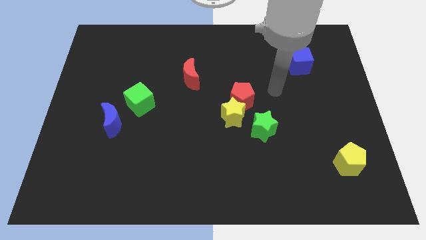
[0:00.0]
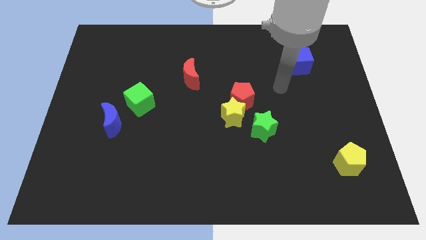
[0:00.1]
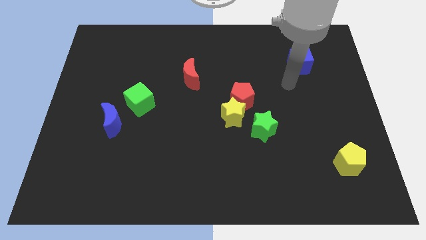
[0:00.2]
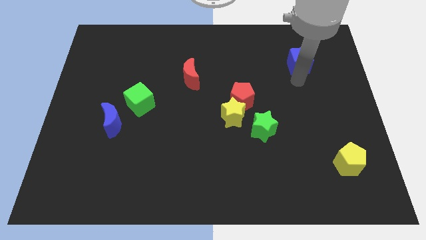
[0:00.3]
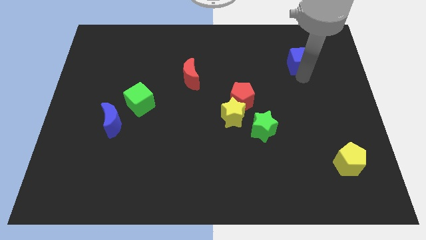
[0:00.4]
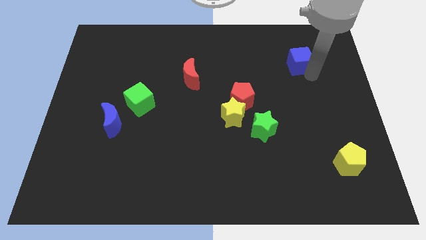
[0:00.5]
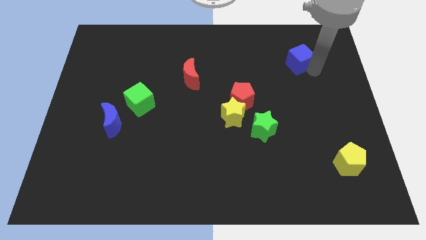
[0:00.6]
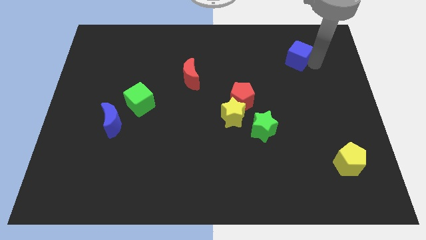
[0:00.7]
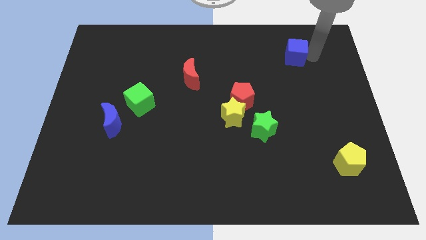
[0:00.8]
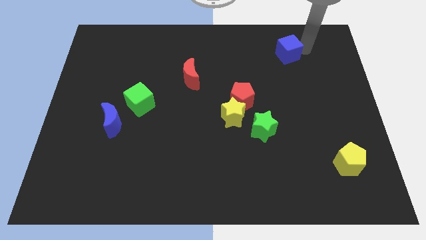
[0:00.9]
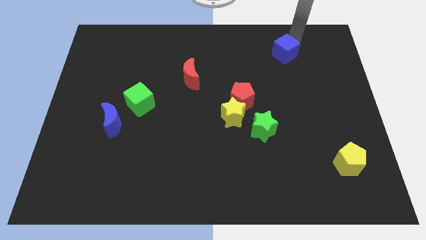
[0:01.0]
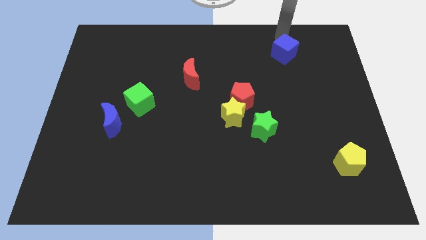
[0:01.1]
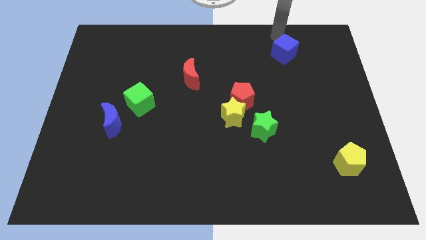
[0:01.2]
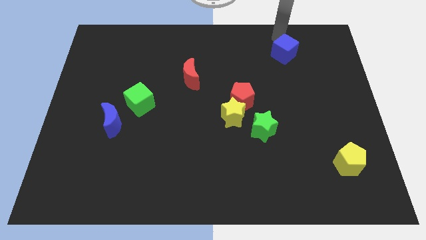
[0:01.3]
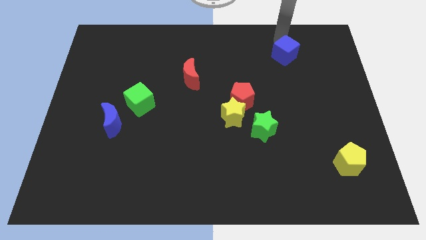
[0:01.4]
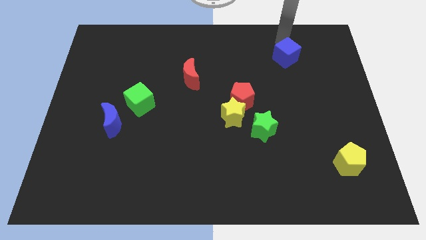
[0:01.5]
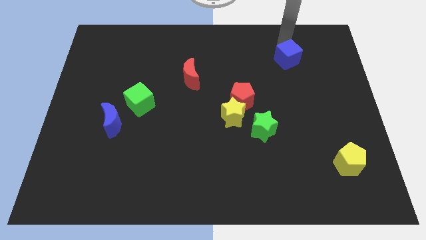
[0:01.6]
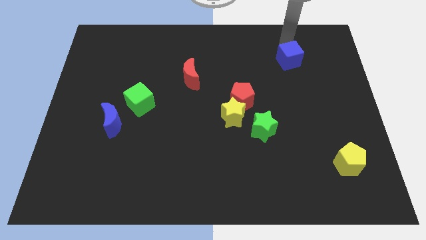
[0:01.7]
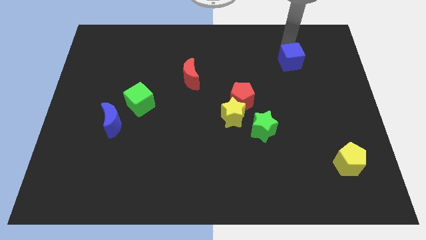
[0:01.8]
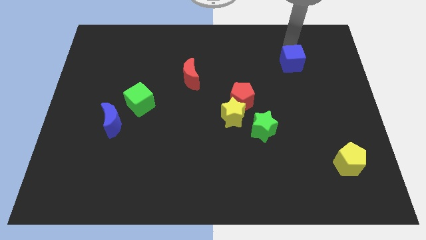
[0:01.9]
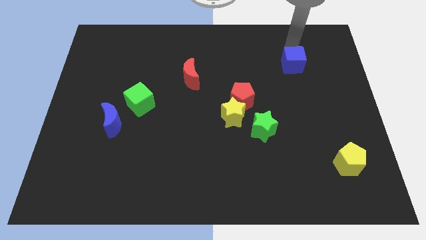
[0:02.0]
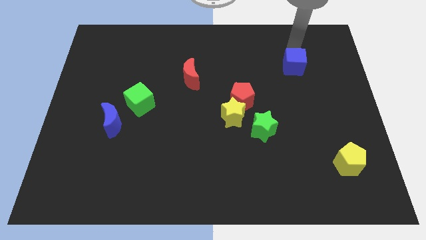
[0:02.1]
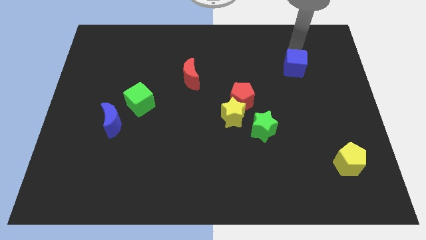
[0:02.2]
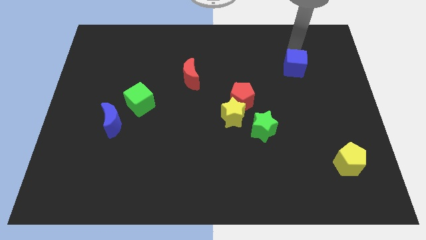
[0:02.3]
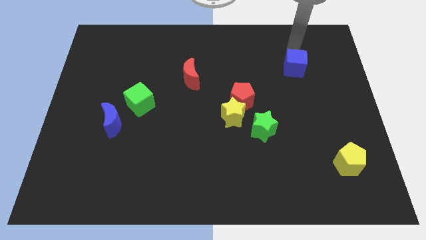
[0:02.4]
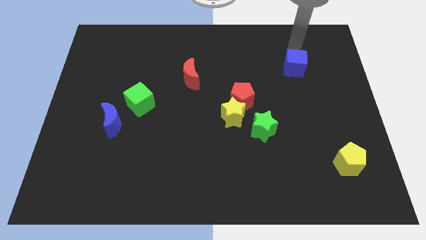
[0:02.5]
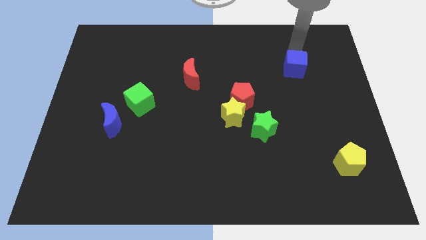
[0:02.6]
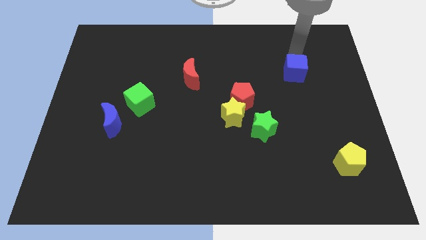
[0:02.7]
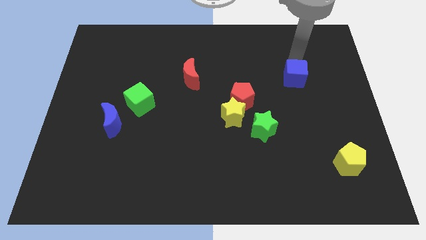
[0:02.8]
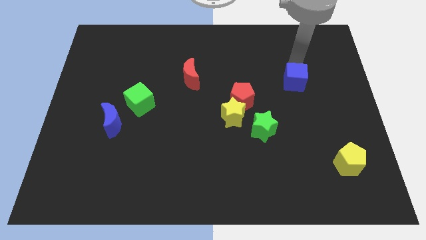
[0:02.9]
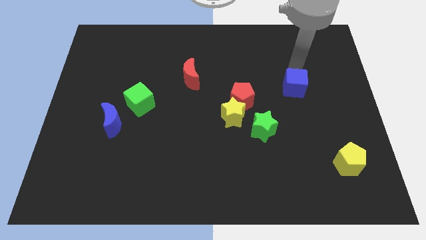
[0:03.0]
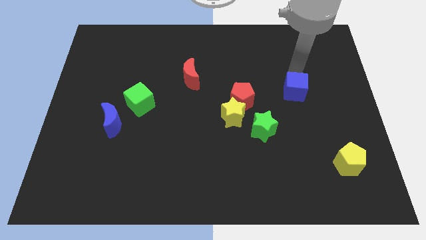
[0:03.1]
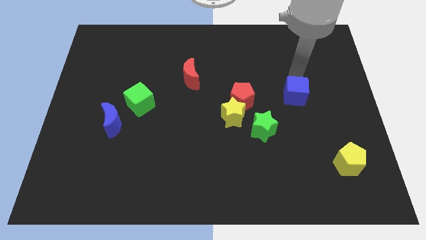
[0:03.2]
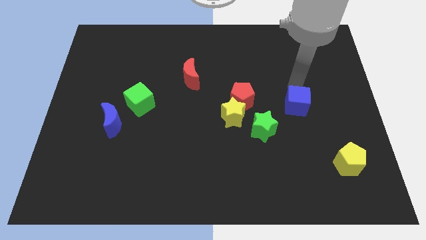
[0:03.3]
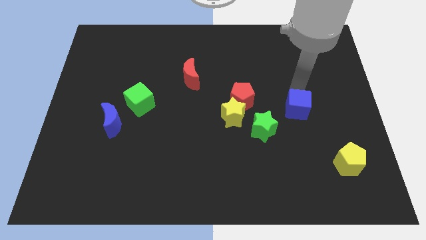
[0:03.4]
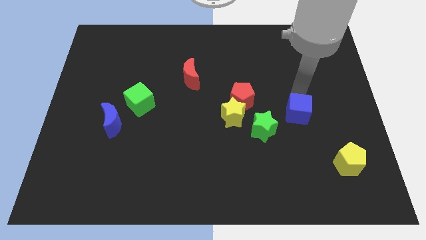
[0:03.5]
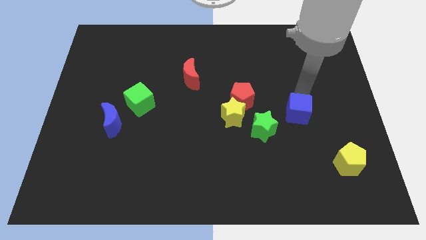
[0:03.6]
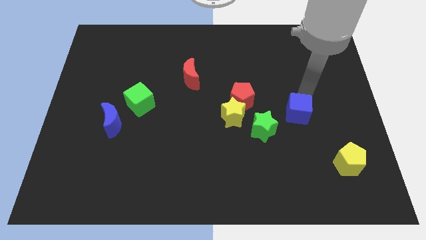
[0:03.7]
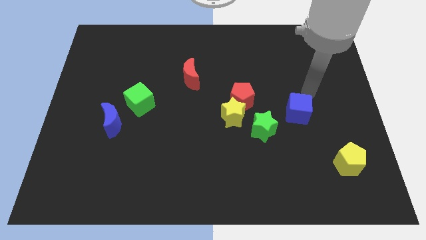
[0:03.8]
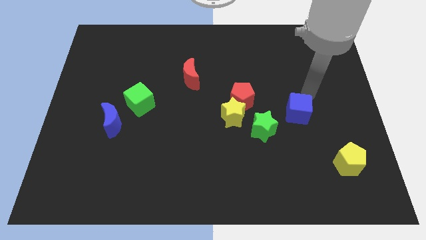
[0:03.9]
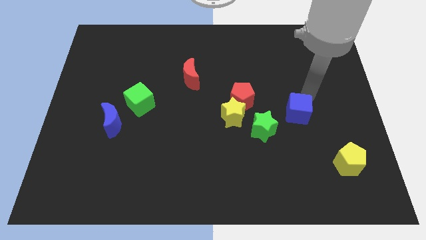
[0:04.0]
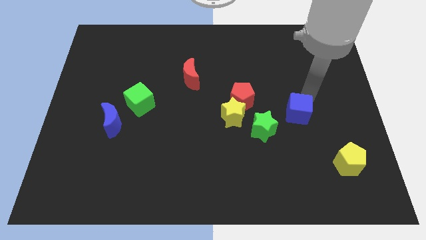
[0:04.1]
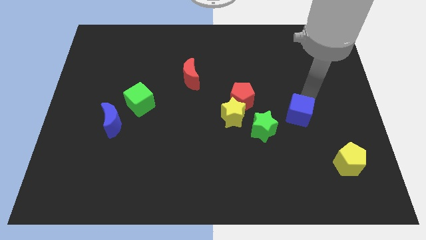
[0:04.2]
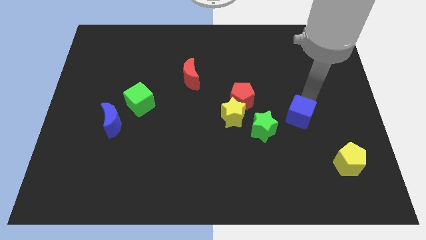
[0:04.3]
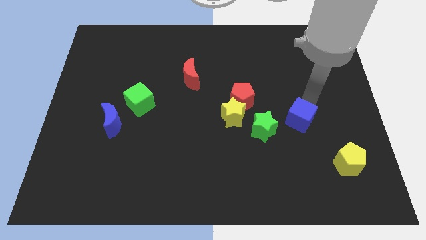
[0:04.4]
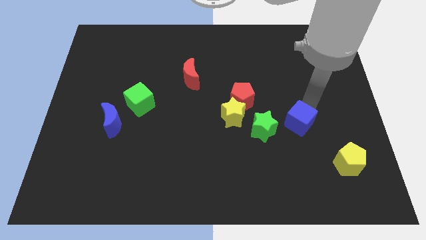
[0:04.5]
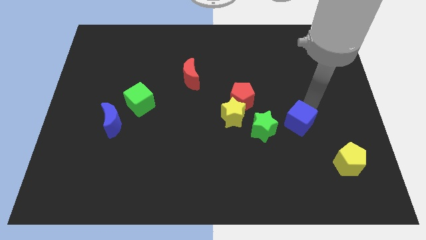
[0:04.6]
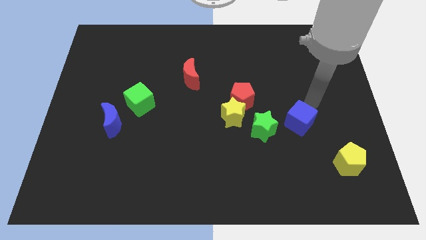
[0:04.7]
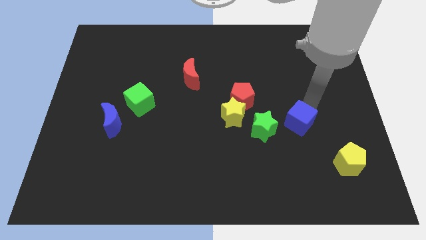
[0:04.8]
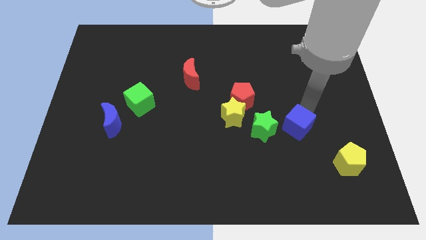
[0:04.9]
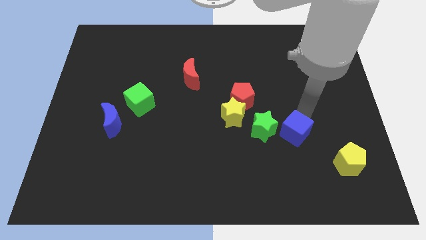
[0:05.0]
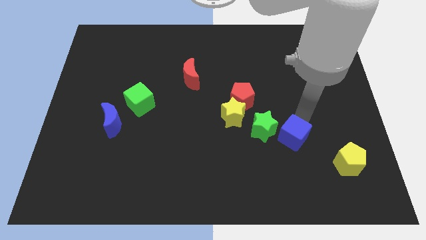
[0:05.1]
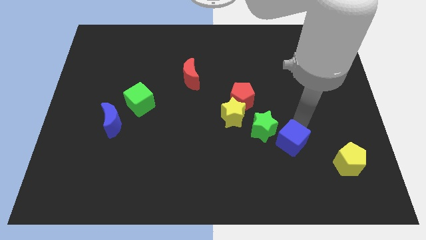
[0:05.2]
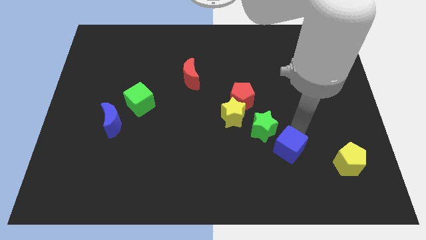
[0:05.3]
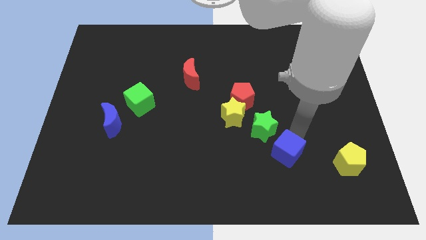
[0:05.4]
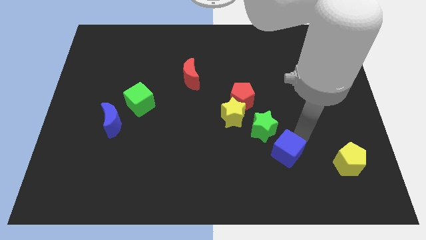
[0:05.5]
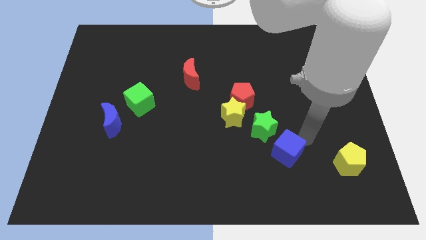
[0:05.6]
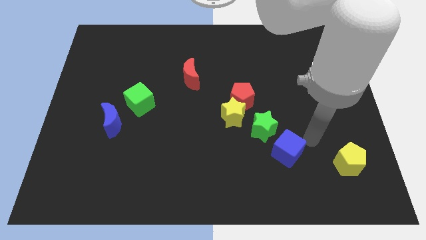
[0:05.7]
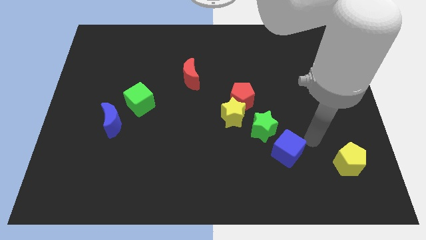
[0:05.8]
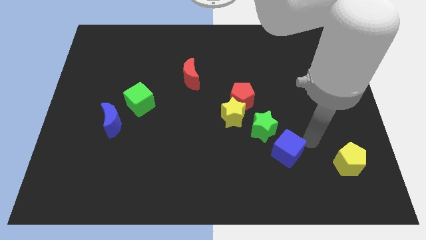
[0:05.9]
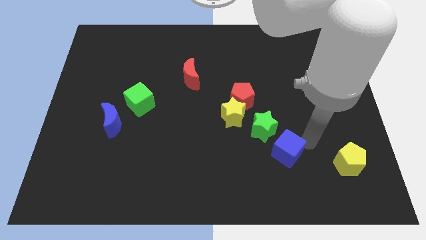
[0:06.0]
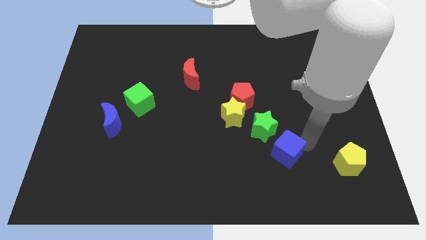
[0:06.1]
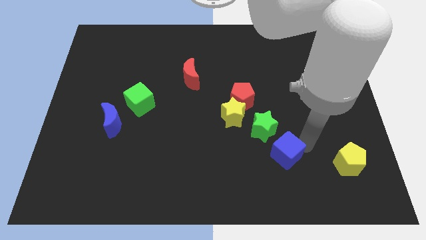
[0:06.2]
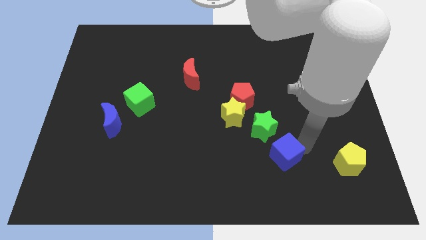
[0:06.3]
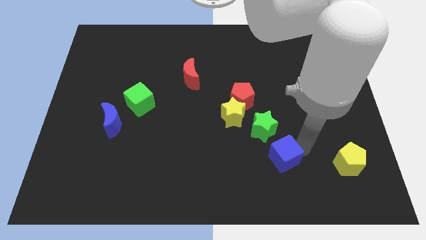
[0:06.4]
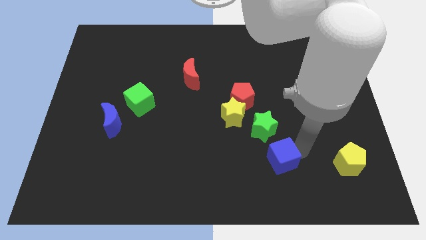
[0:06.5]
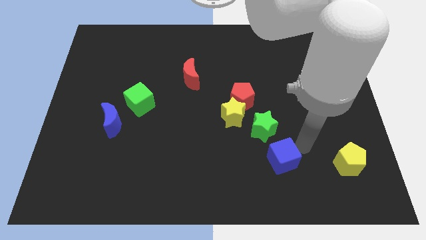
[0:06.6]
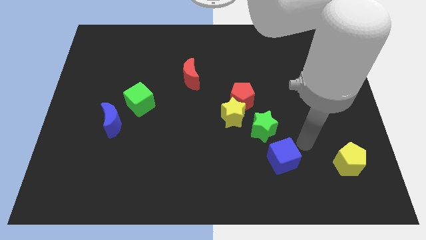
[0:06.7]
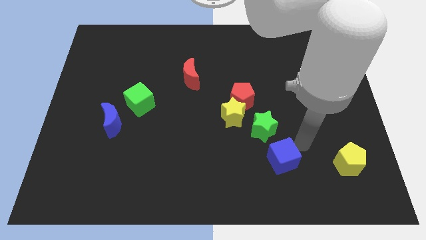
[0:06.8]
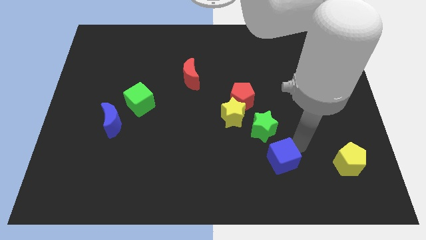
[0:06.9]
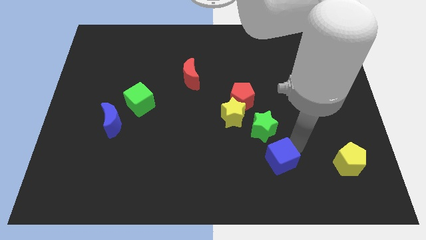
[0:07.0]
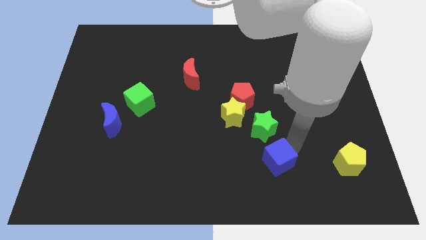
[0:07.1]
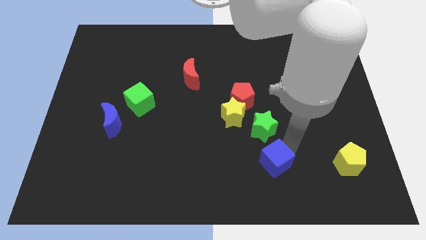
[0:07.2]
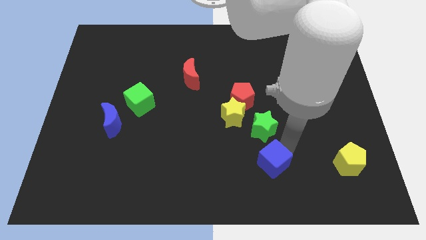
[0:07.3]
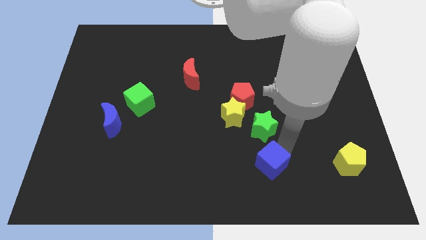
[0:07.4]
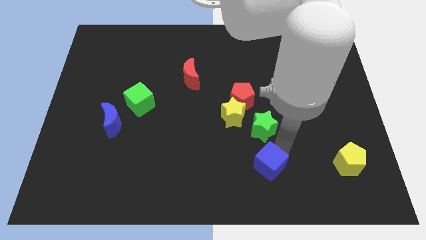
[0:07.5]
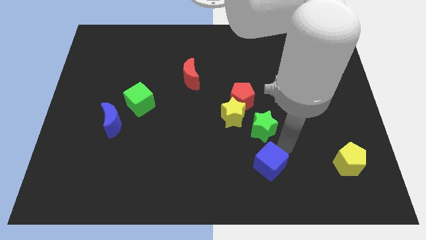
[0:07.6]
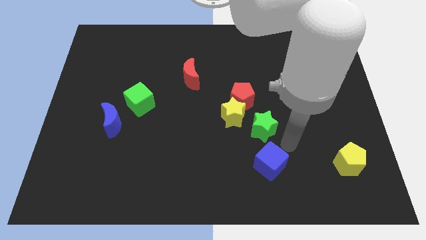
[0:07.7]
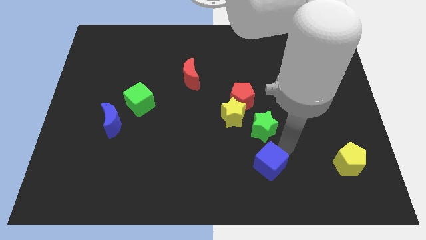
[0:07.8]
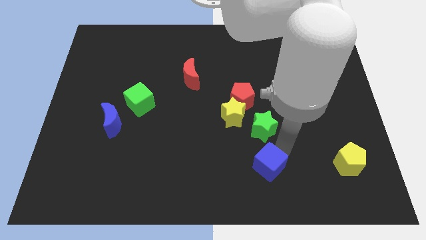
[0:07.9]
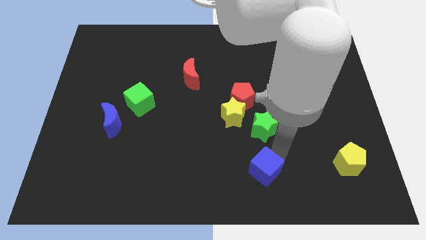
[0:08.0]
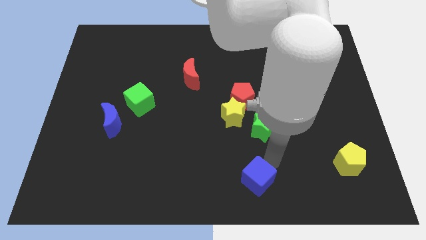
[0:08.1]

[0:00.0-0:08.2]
push the blue cube to the bottom side
